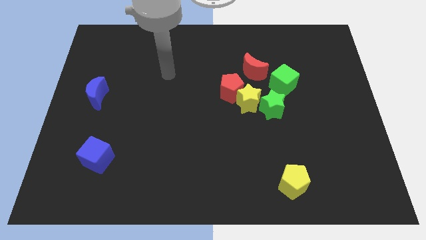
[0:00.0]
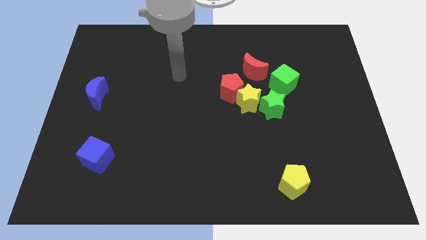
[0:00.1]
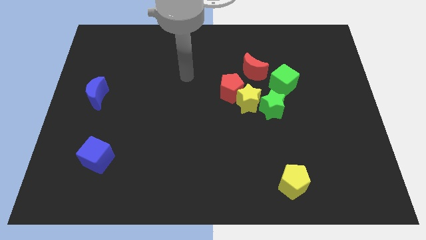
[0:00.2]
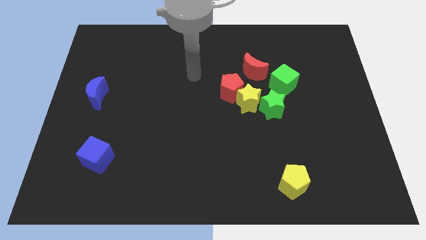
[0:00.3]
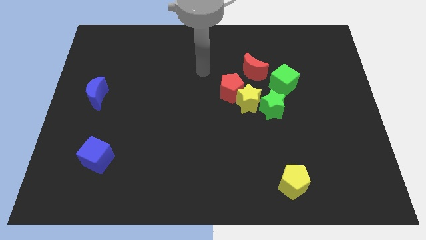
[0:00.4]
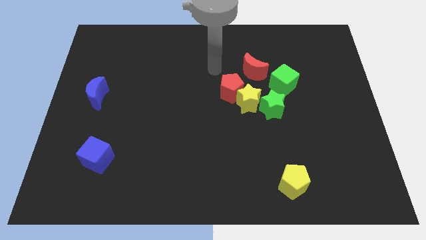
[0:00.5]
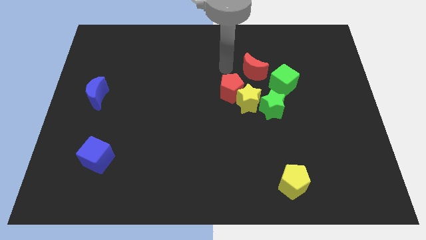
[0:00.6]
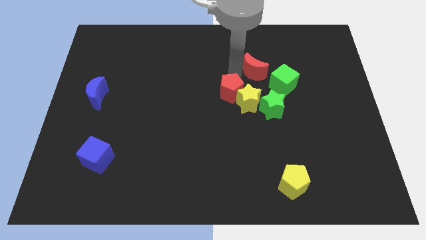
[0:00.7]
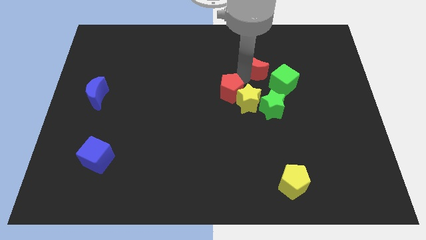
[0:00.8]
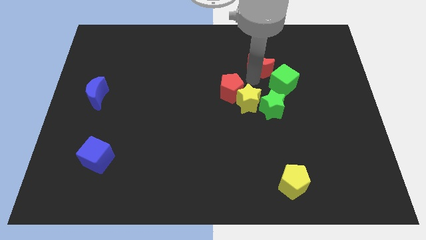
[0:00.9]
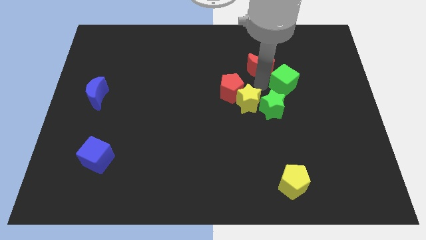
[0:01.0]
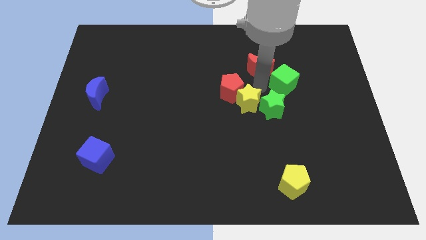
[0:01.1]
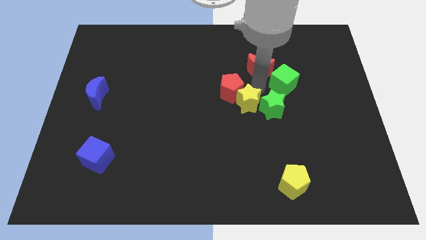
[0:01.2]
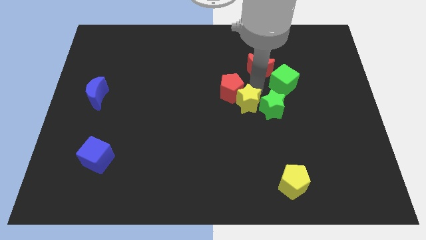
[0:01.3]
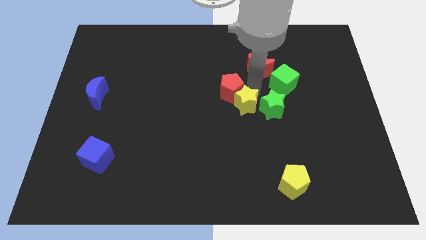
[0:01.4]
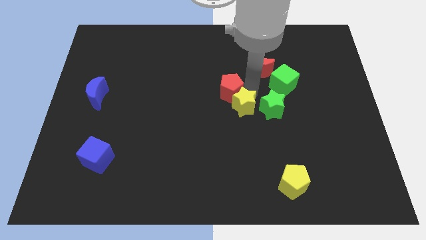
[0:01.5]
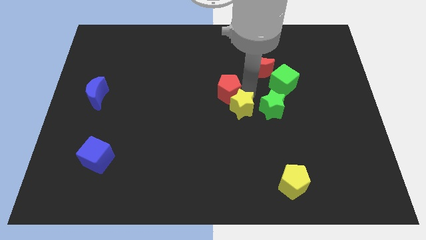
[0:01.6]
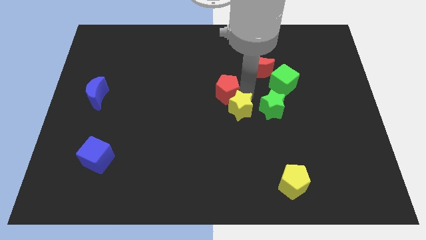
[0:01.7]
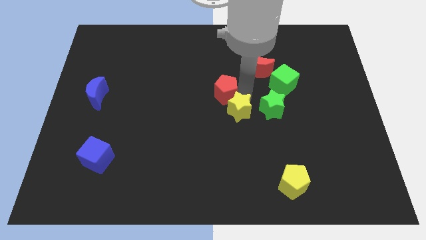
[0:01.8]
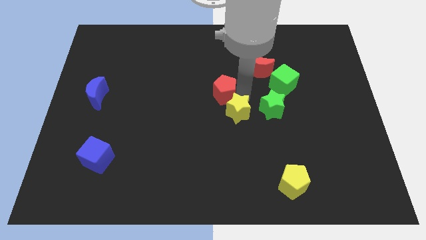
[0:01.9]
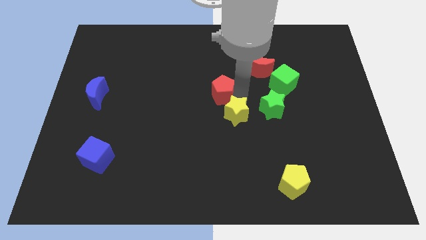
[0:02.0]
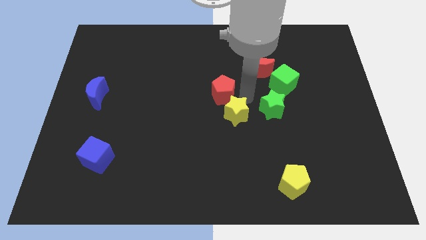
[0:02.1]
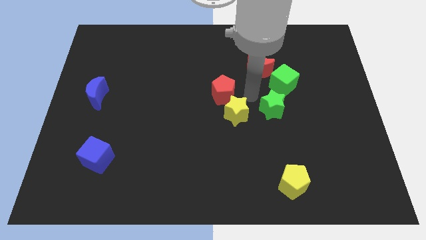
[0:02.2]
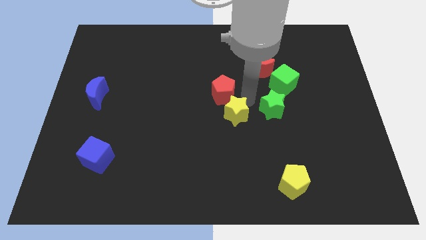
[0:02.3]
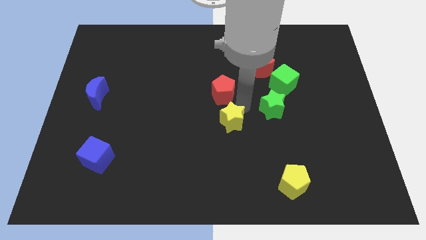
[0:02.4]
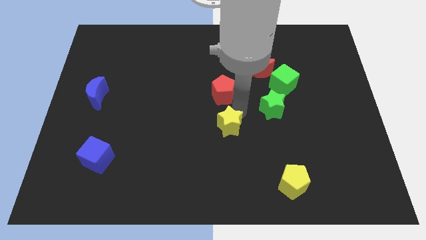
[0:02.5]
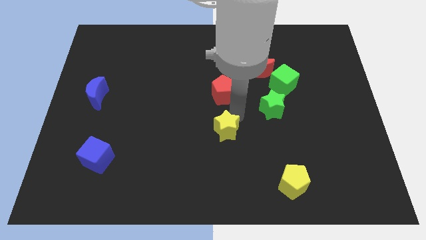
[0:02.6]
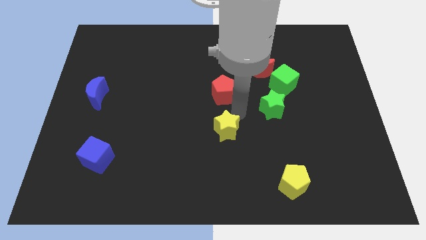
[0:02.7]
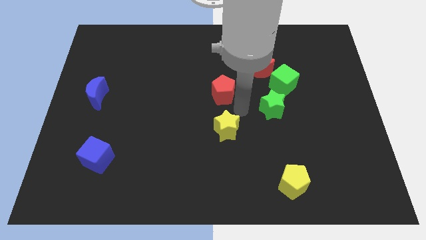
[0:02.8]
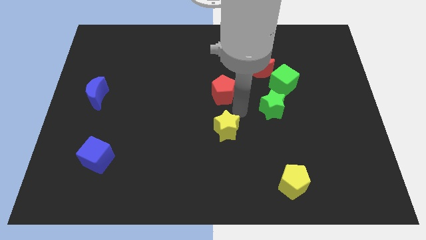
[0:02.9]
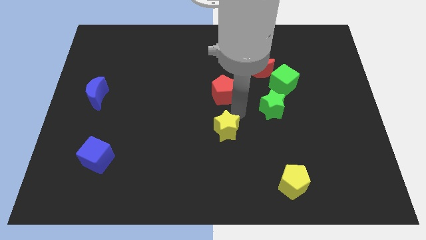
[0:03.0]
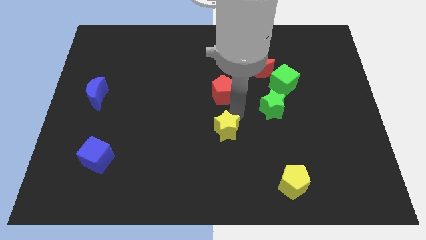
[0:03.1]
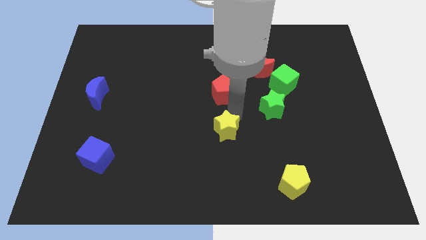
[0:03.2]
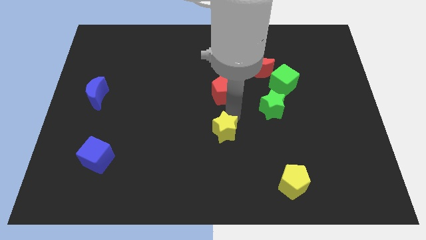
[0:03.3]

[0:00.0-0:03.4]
move the yellow star away from the red pentagon and green star

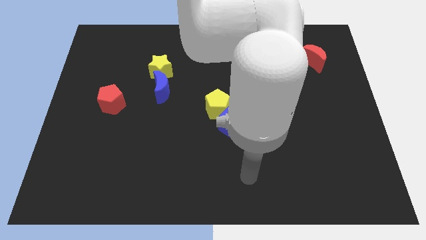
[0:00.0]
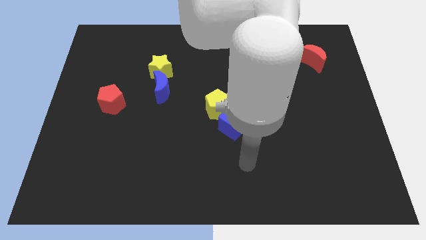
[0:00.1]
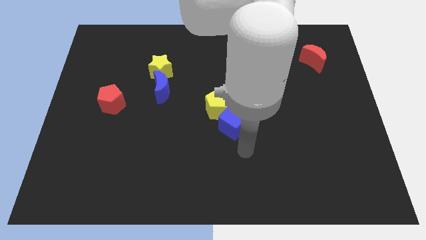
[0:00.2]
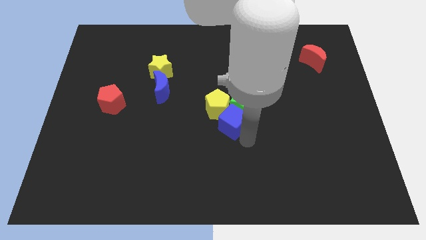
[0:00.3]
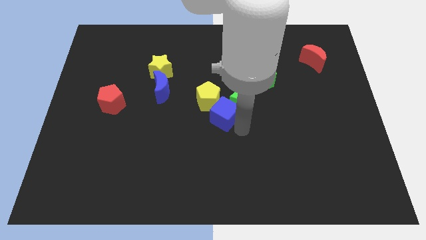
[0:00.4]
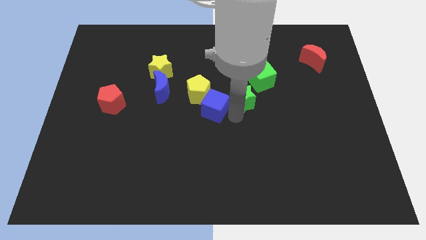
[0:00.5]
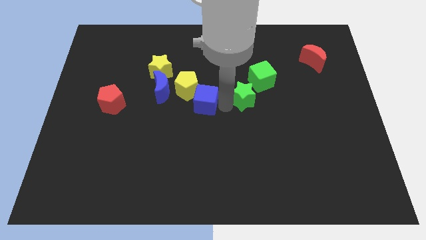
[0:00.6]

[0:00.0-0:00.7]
pull the yellow pentagon apart from the green star and blue cube

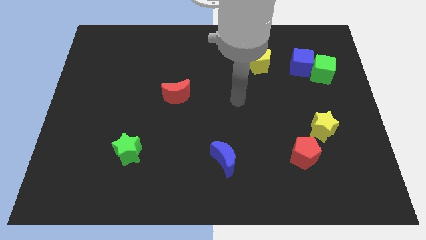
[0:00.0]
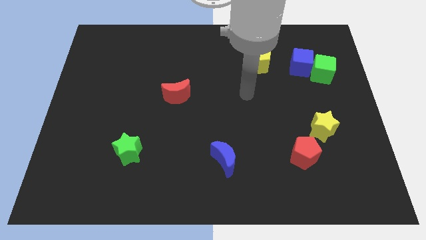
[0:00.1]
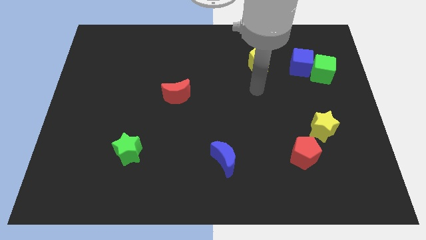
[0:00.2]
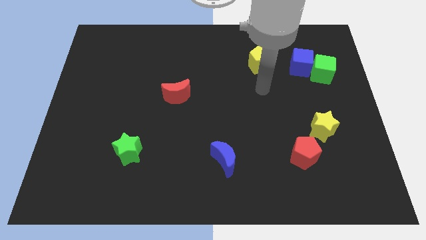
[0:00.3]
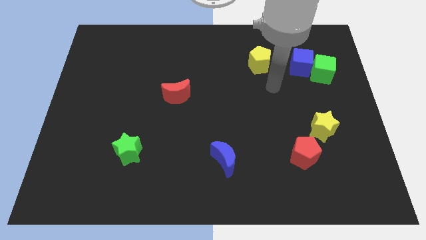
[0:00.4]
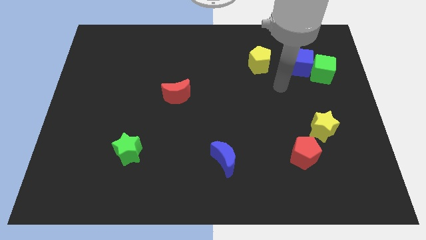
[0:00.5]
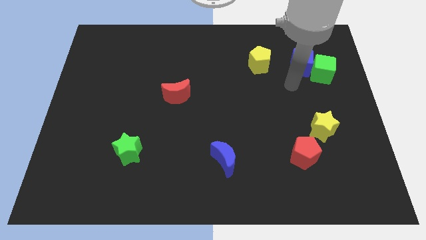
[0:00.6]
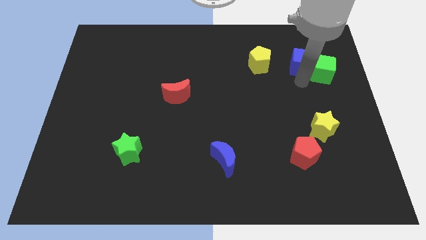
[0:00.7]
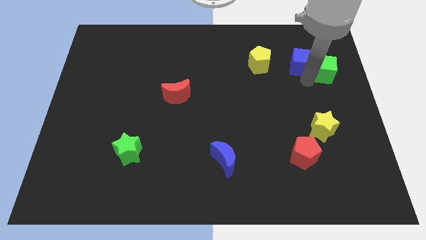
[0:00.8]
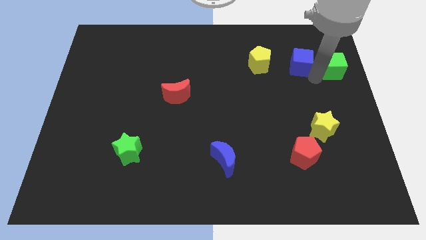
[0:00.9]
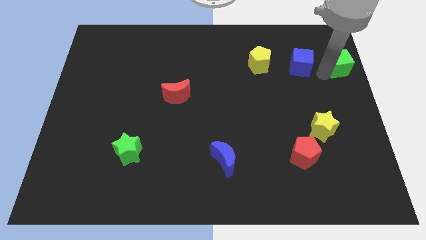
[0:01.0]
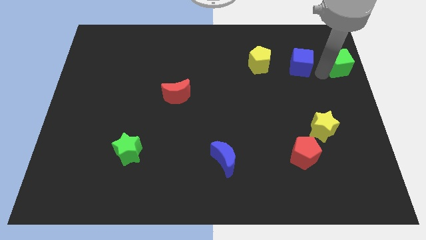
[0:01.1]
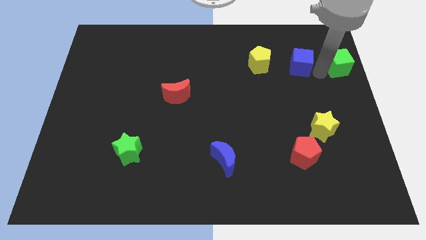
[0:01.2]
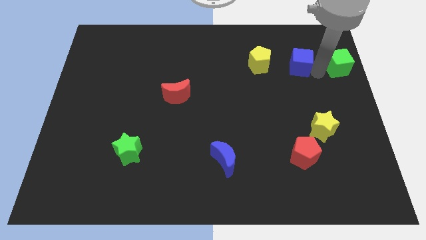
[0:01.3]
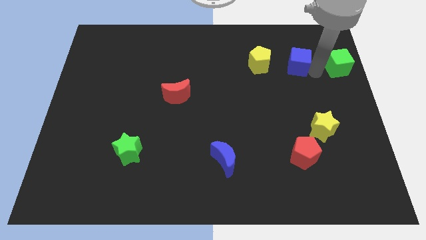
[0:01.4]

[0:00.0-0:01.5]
separate the blue cube from the green cube

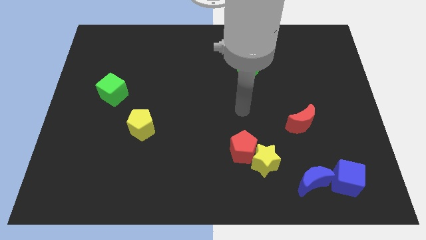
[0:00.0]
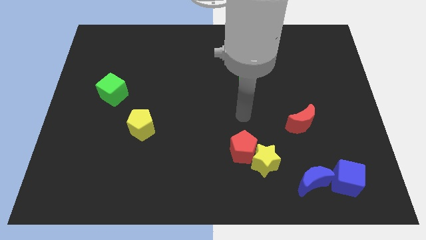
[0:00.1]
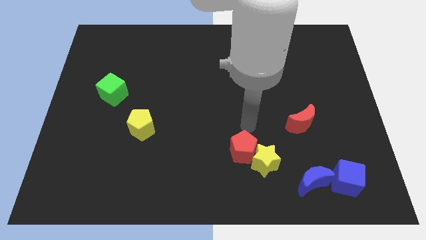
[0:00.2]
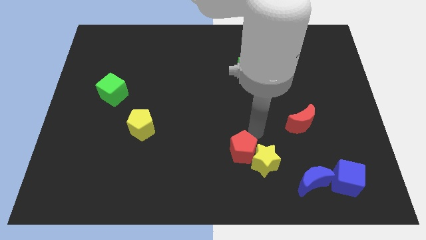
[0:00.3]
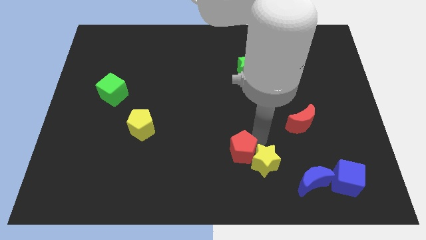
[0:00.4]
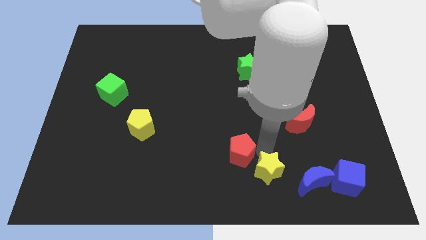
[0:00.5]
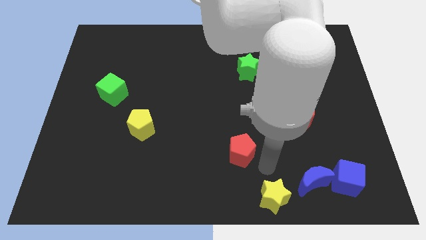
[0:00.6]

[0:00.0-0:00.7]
move the red pentagon away from the yellow star

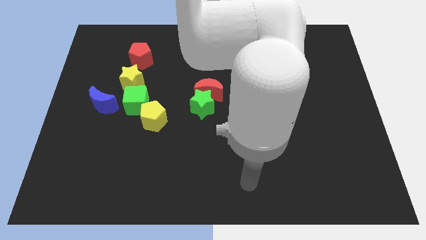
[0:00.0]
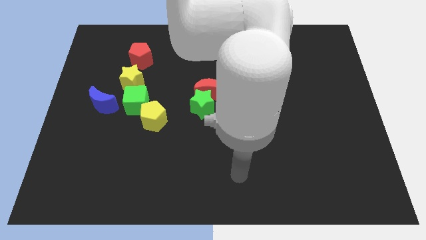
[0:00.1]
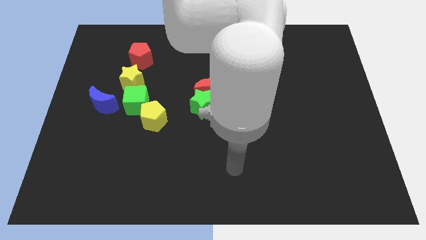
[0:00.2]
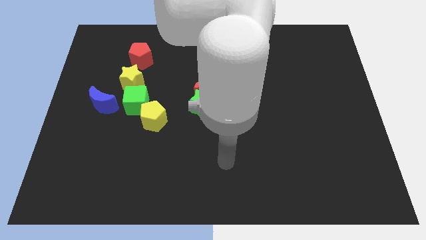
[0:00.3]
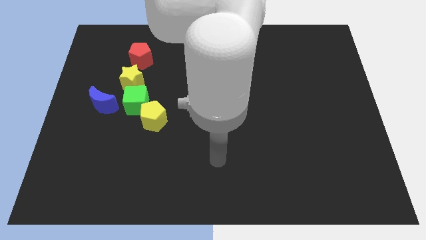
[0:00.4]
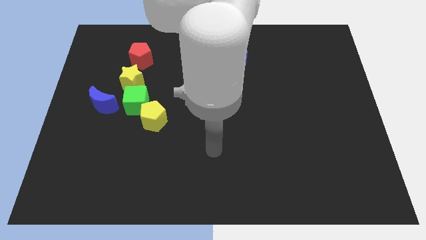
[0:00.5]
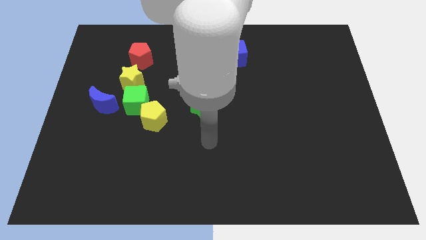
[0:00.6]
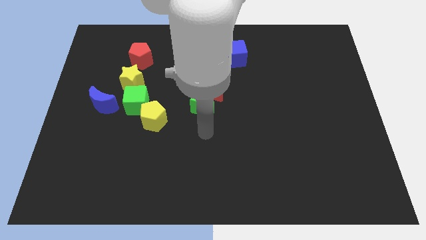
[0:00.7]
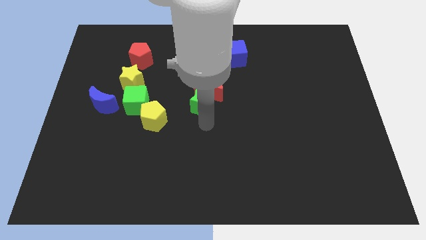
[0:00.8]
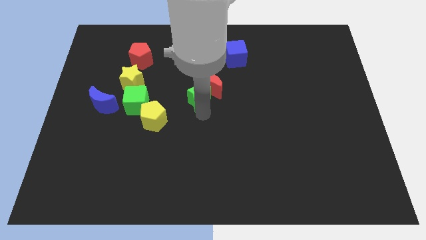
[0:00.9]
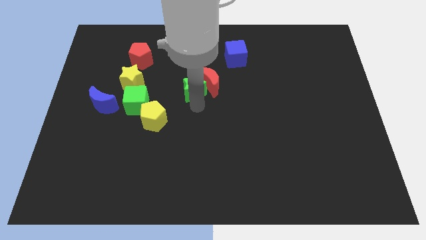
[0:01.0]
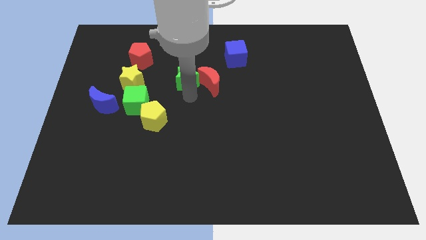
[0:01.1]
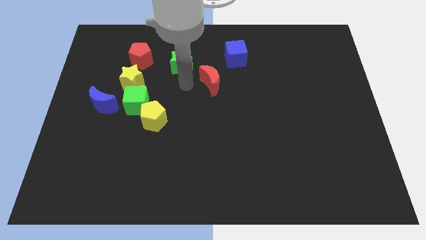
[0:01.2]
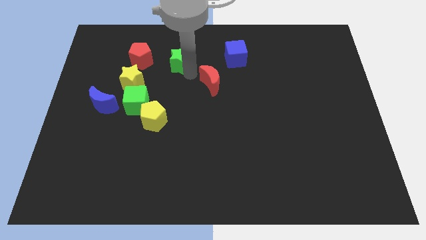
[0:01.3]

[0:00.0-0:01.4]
move the red moon away from the green star

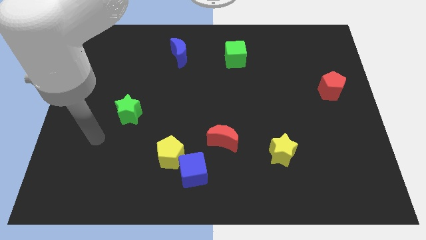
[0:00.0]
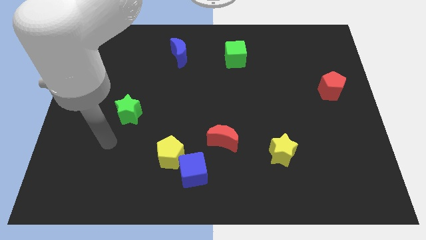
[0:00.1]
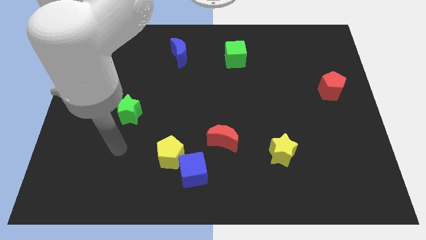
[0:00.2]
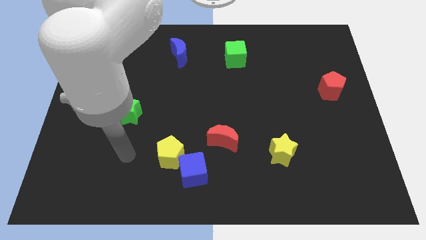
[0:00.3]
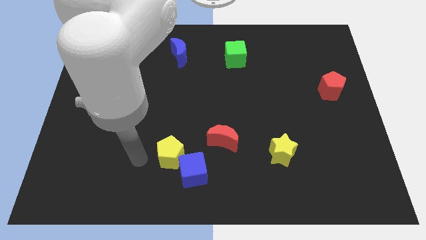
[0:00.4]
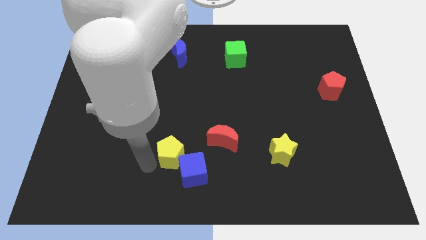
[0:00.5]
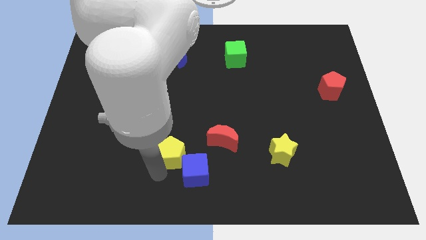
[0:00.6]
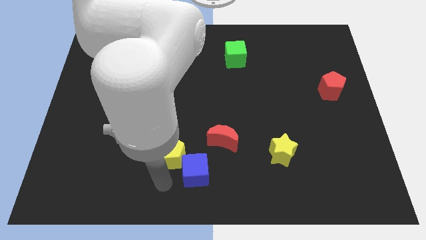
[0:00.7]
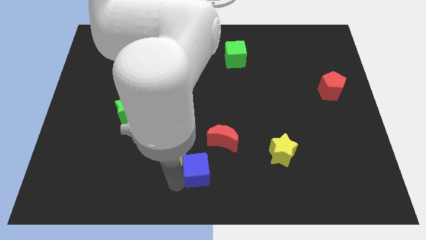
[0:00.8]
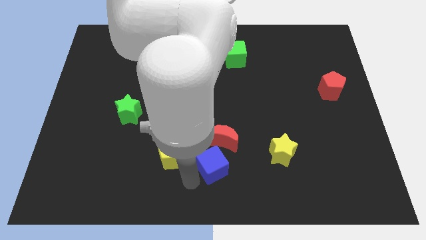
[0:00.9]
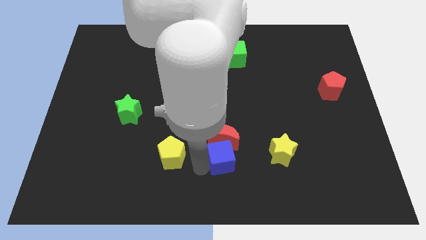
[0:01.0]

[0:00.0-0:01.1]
pull the yellow pentagon apart from the blue cube

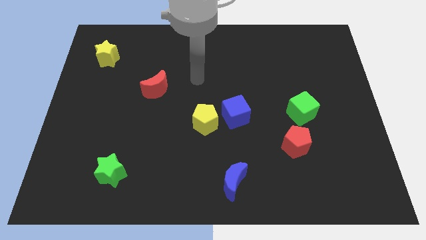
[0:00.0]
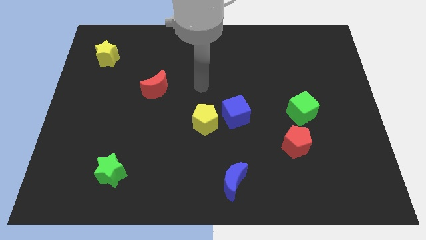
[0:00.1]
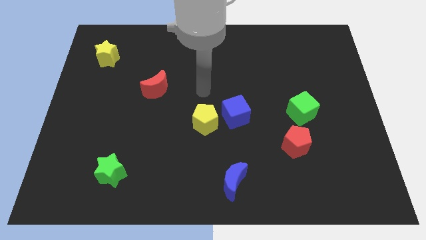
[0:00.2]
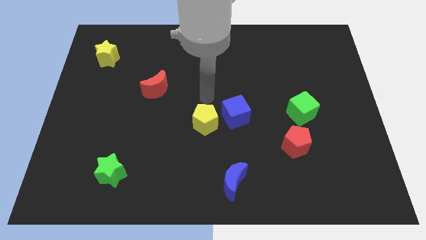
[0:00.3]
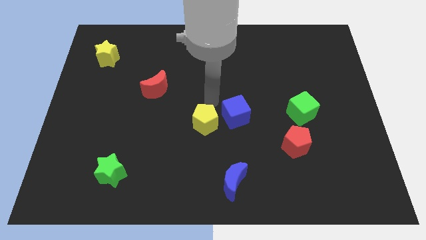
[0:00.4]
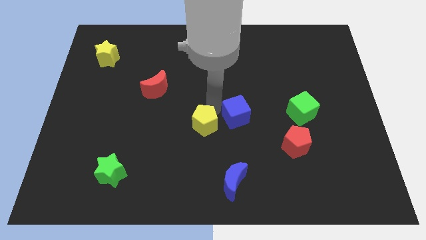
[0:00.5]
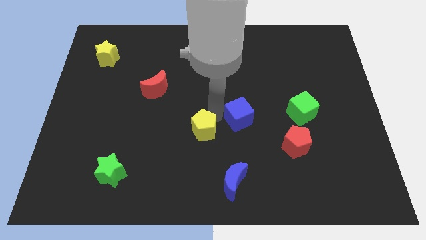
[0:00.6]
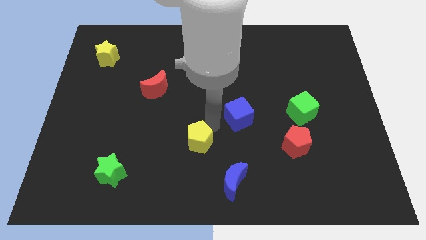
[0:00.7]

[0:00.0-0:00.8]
pull the blue cube apart from the yellow pentagon
